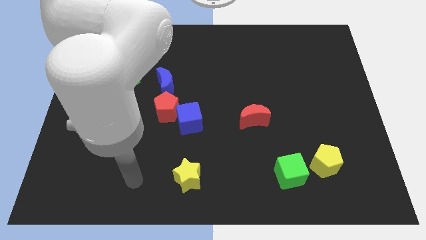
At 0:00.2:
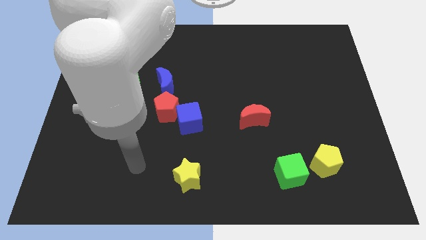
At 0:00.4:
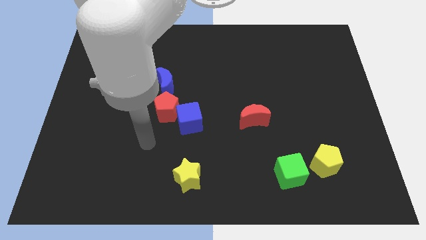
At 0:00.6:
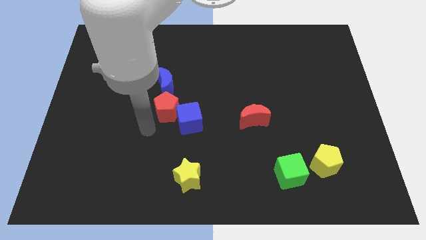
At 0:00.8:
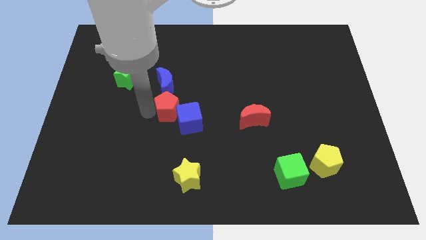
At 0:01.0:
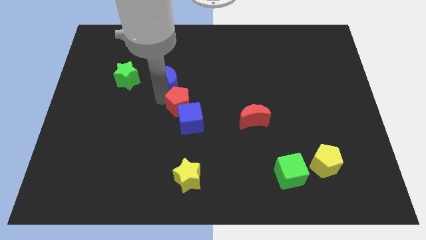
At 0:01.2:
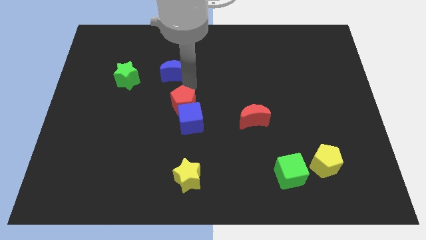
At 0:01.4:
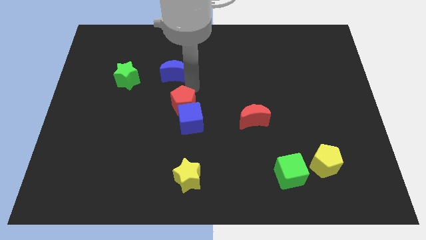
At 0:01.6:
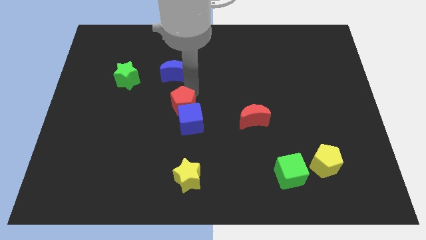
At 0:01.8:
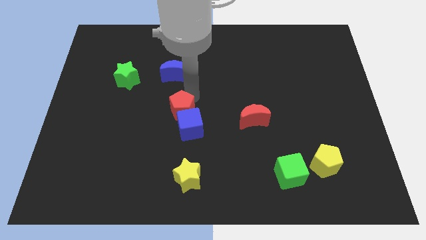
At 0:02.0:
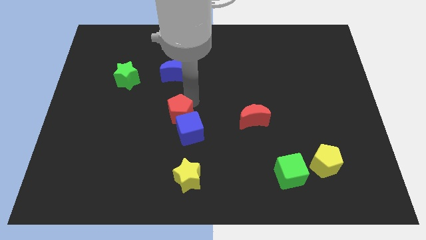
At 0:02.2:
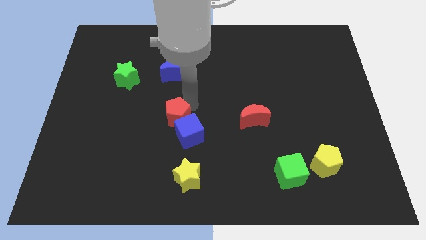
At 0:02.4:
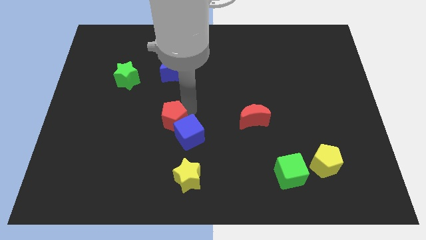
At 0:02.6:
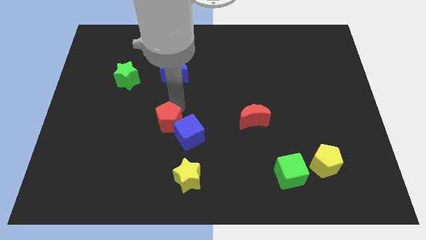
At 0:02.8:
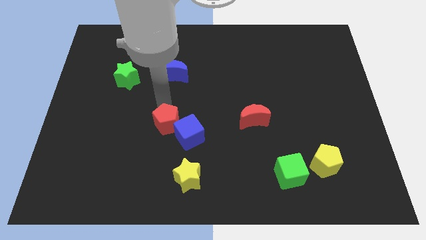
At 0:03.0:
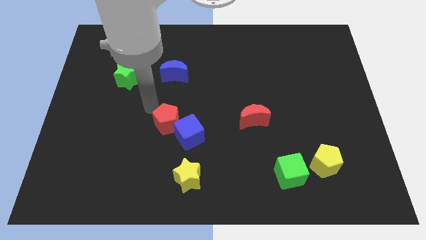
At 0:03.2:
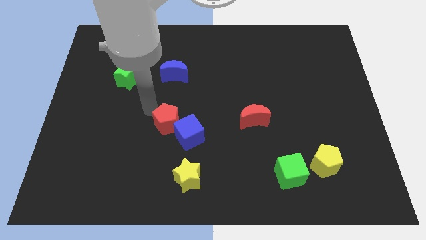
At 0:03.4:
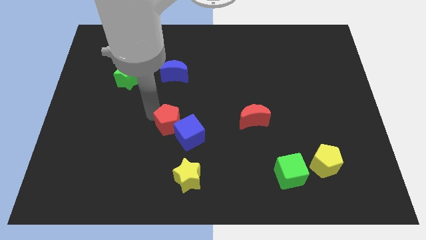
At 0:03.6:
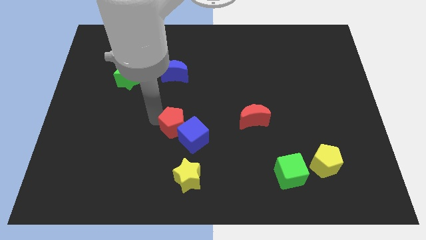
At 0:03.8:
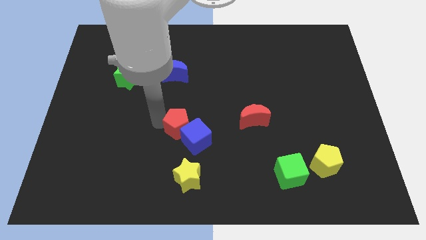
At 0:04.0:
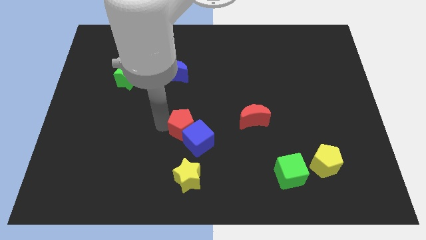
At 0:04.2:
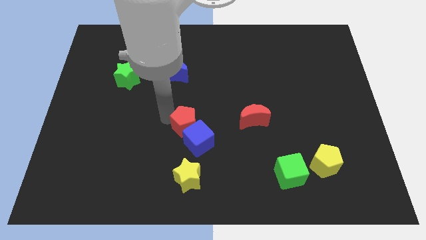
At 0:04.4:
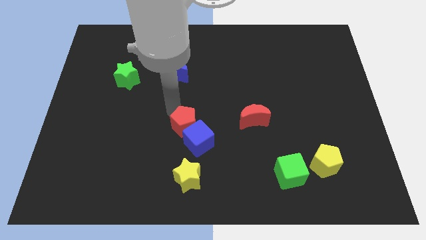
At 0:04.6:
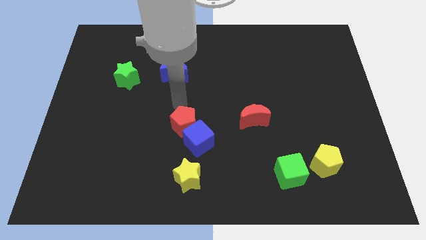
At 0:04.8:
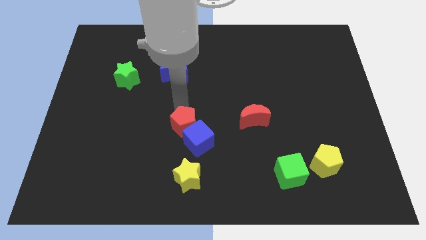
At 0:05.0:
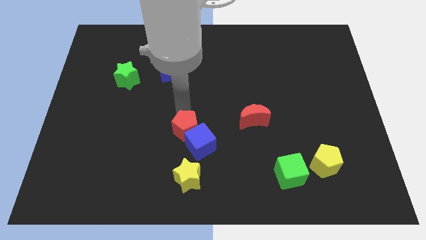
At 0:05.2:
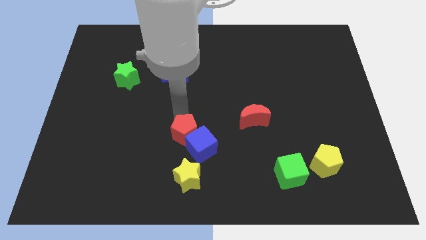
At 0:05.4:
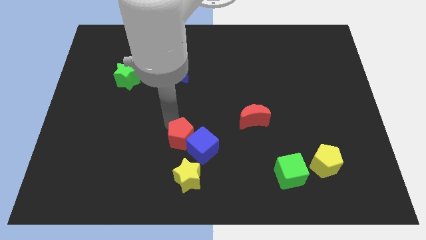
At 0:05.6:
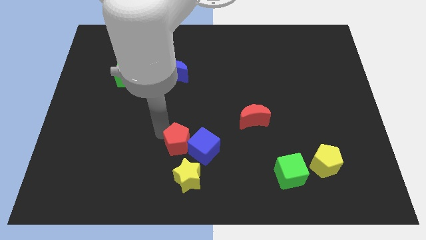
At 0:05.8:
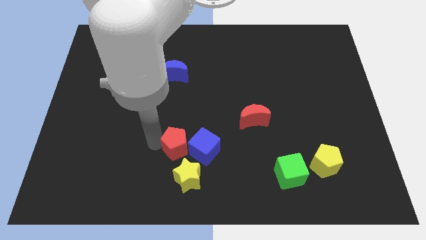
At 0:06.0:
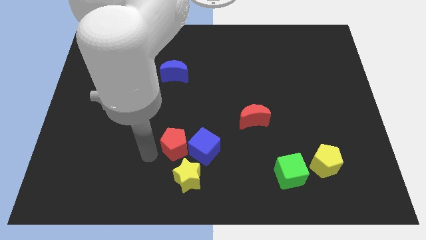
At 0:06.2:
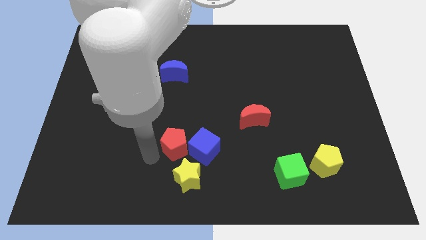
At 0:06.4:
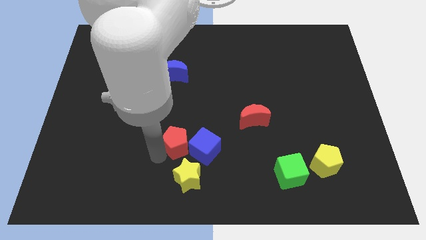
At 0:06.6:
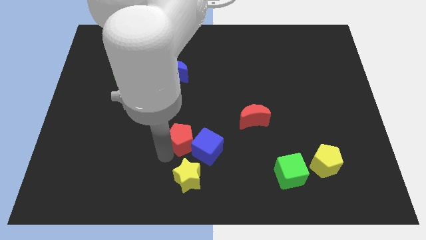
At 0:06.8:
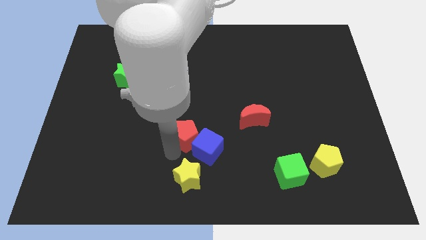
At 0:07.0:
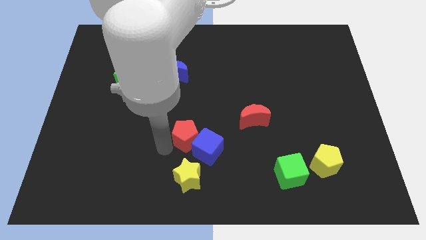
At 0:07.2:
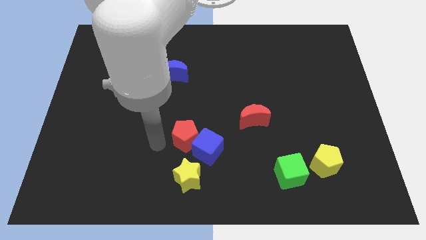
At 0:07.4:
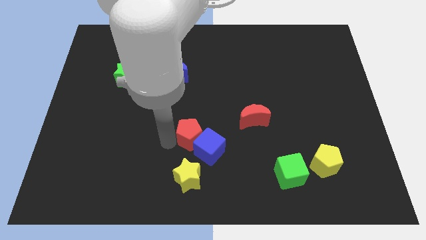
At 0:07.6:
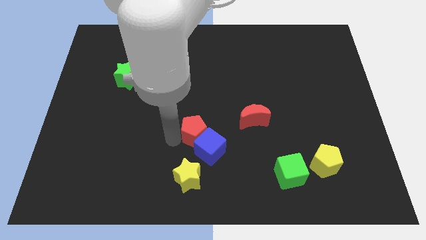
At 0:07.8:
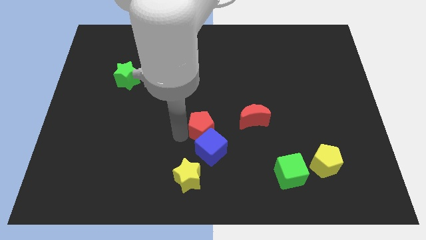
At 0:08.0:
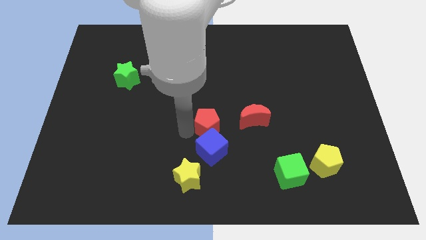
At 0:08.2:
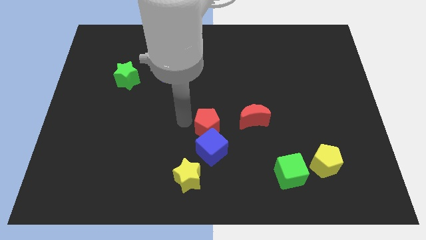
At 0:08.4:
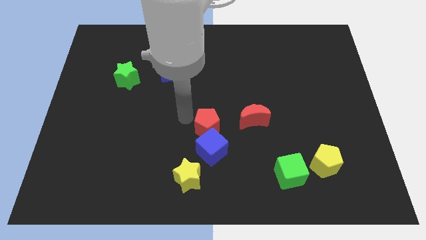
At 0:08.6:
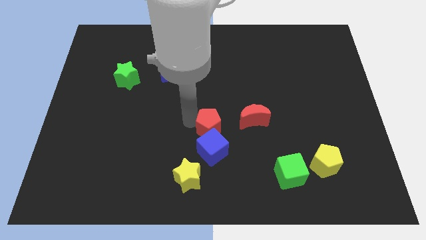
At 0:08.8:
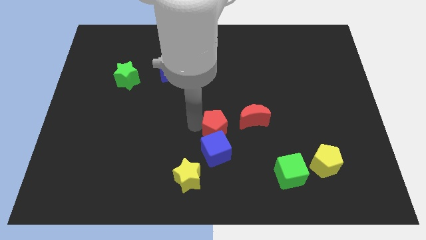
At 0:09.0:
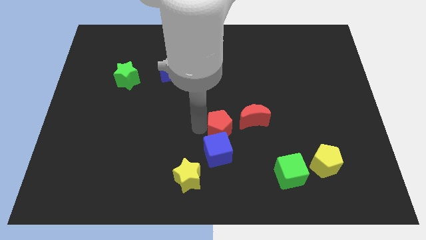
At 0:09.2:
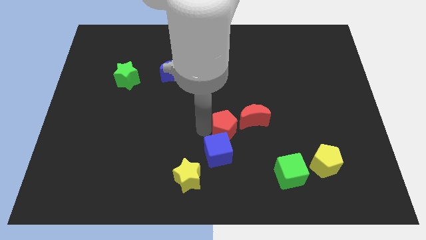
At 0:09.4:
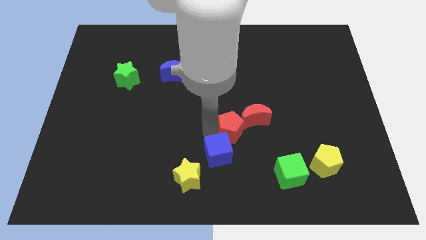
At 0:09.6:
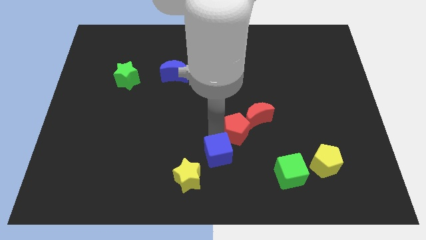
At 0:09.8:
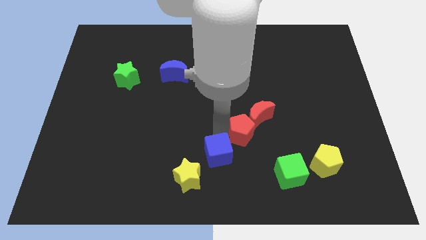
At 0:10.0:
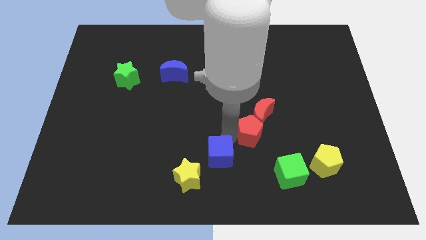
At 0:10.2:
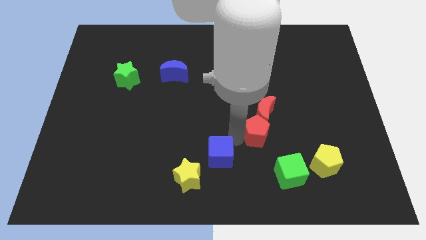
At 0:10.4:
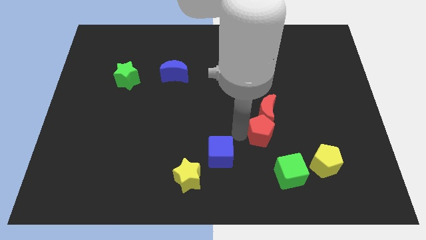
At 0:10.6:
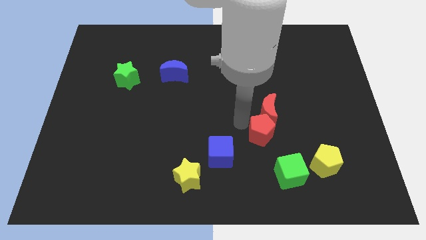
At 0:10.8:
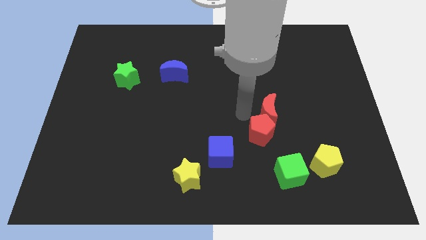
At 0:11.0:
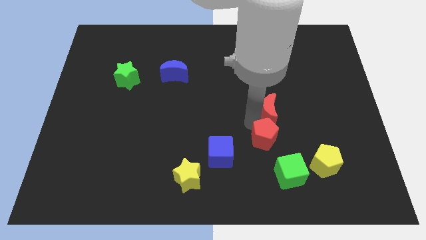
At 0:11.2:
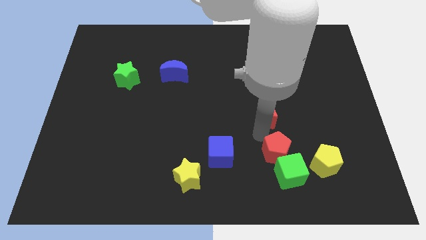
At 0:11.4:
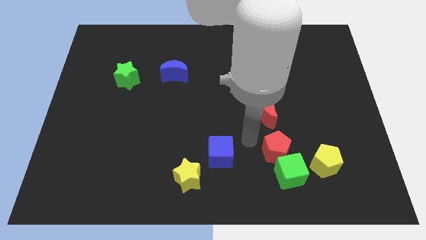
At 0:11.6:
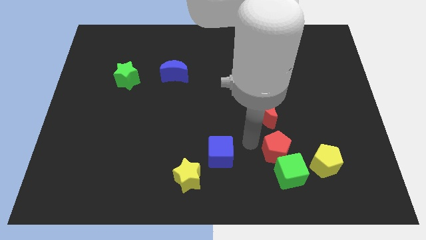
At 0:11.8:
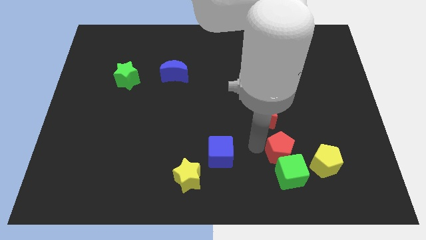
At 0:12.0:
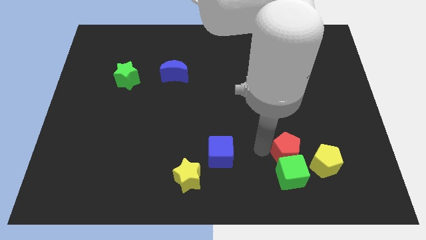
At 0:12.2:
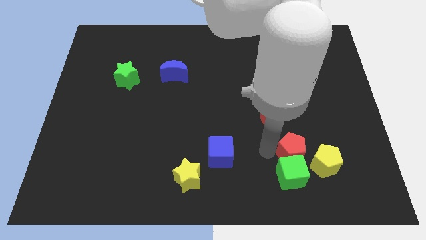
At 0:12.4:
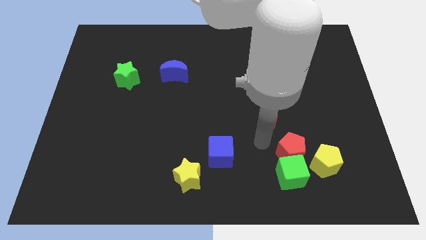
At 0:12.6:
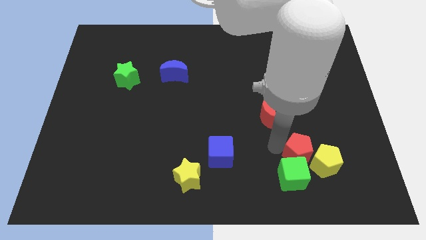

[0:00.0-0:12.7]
push the red pentagon towards the yellow pentagon

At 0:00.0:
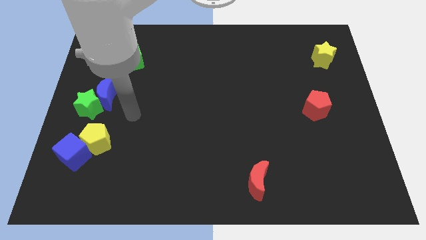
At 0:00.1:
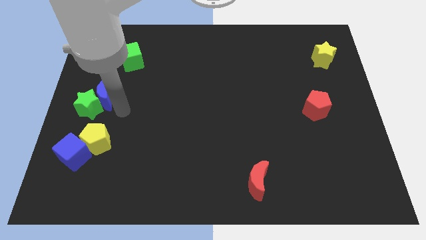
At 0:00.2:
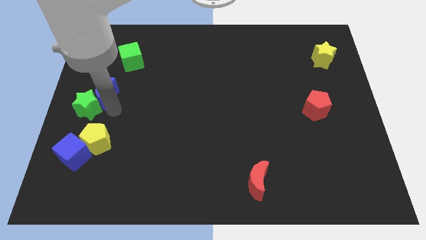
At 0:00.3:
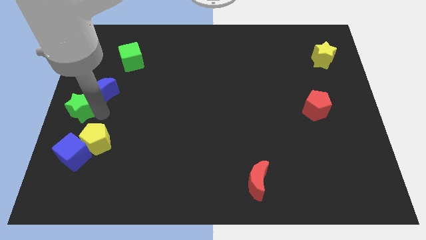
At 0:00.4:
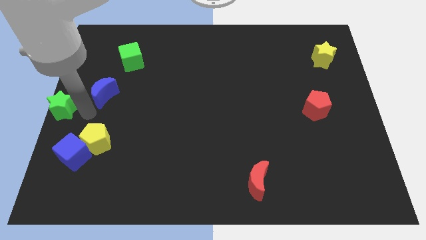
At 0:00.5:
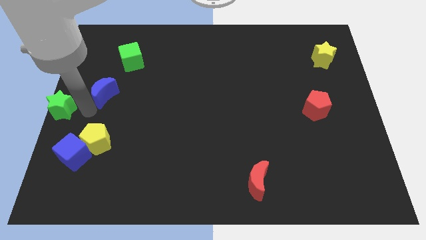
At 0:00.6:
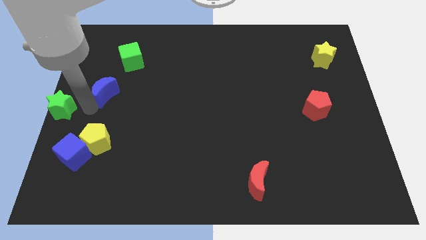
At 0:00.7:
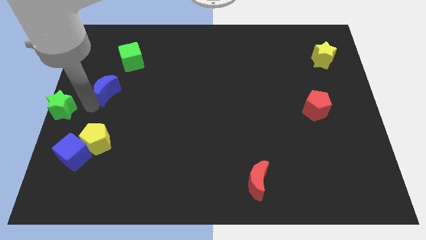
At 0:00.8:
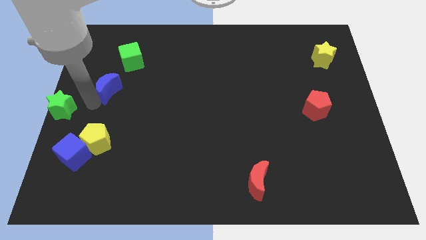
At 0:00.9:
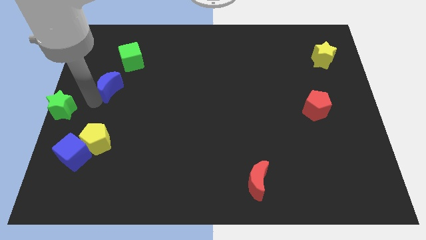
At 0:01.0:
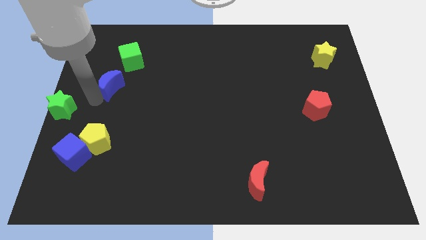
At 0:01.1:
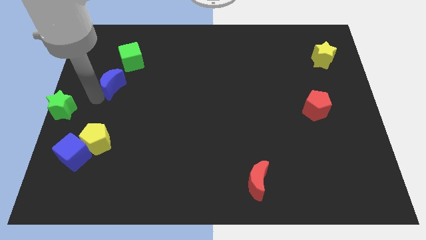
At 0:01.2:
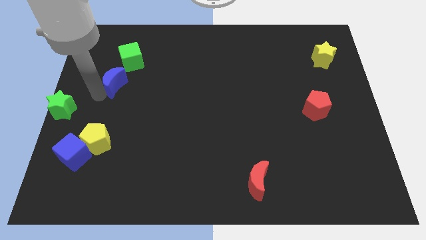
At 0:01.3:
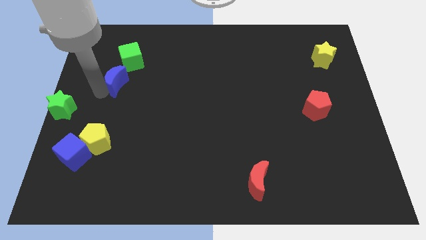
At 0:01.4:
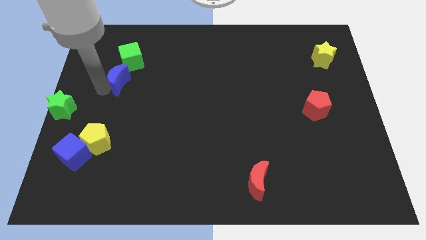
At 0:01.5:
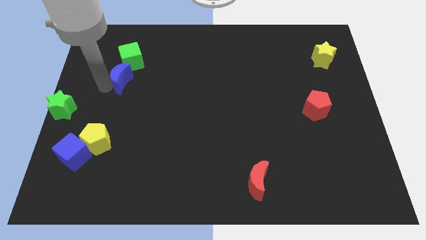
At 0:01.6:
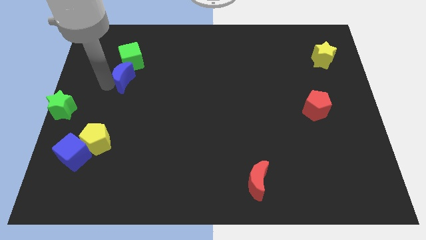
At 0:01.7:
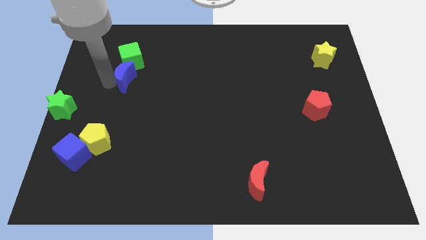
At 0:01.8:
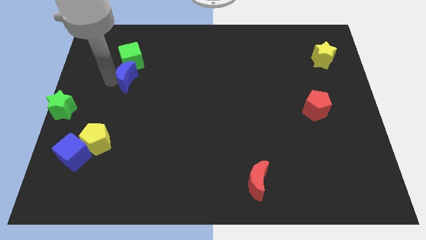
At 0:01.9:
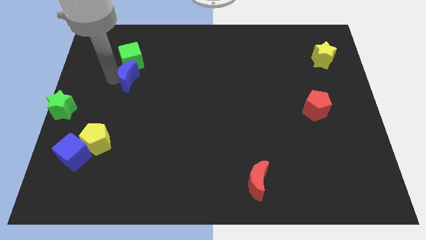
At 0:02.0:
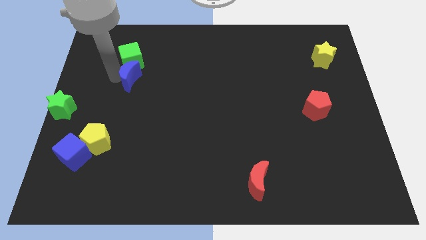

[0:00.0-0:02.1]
slide the blue moon next to the green cube
